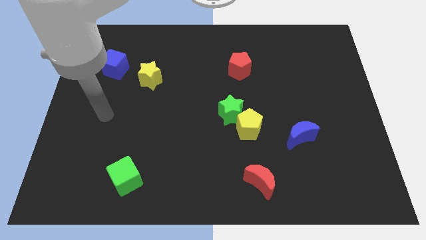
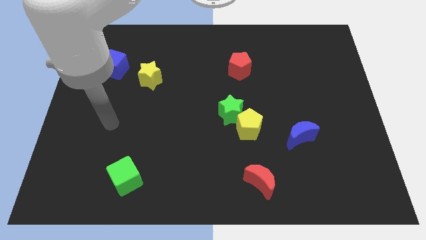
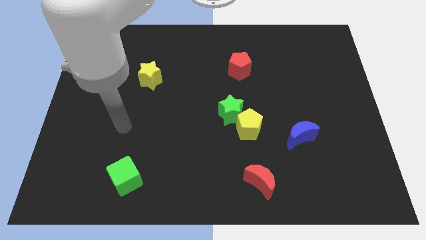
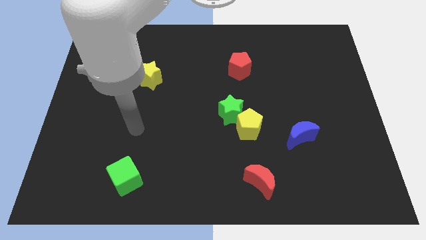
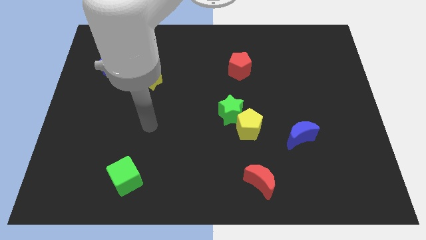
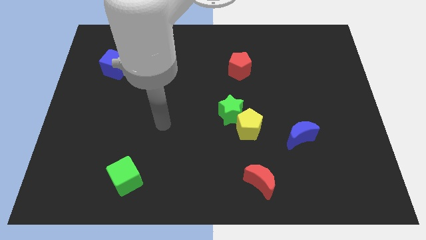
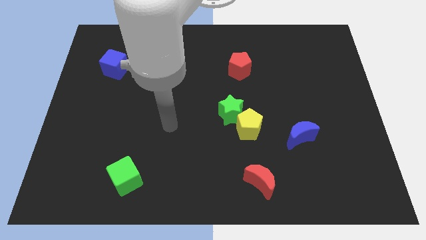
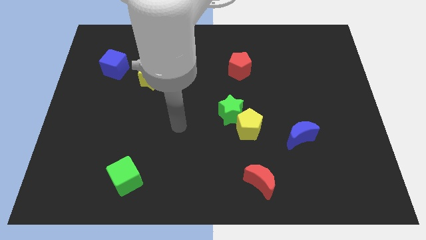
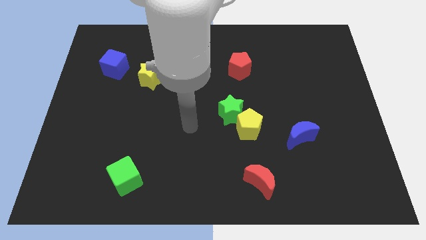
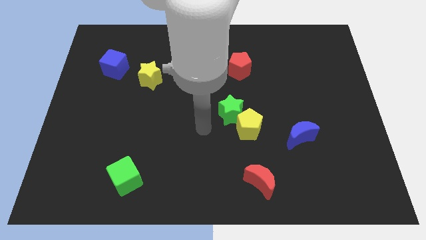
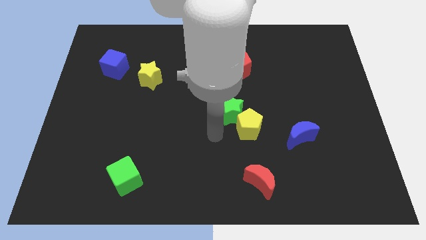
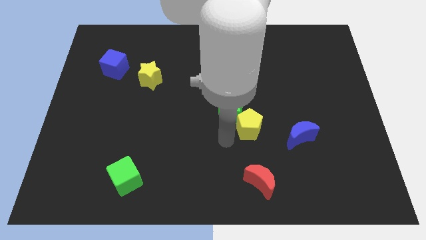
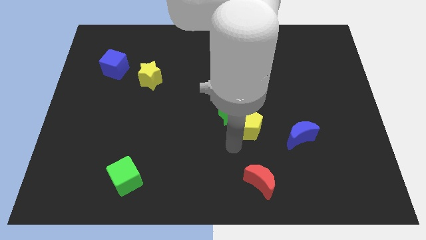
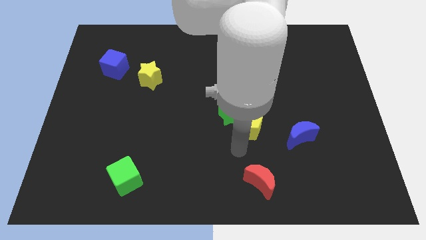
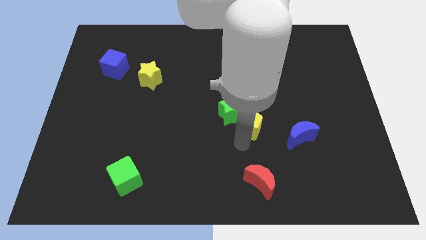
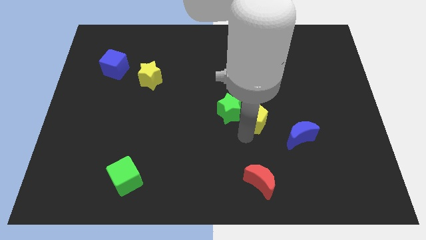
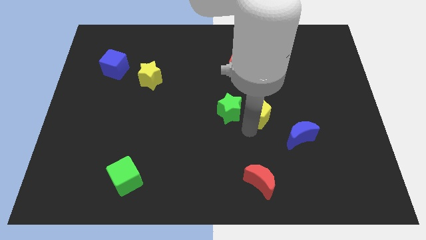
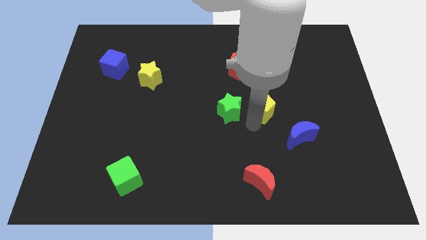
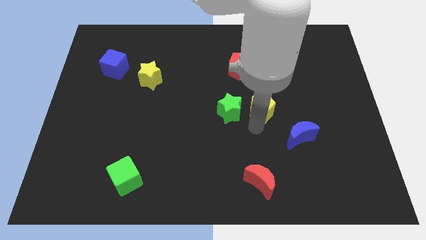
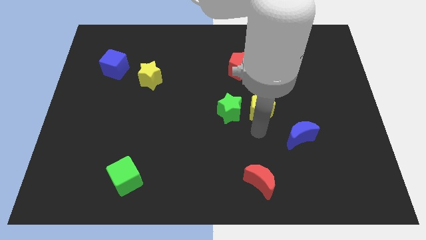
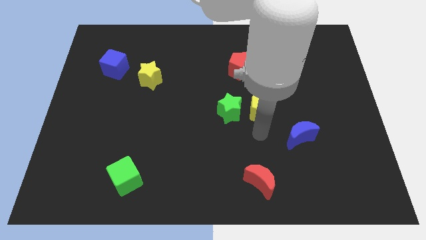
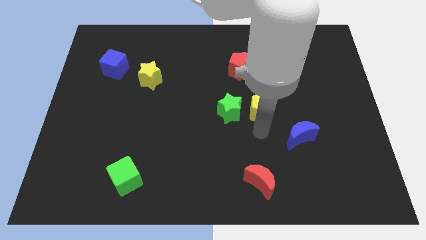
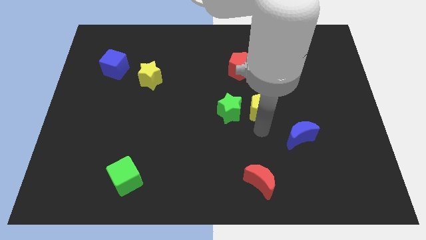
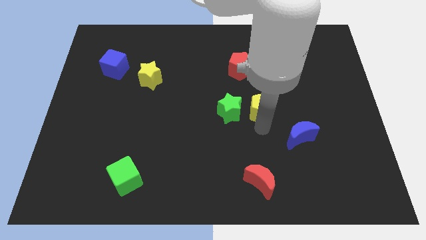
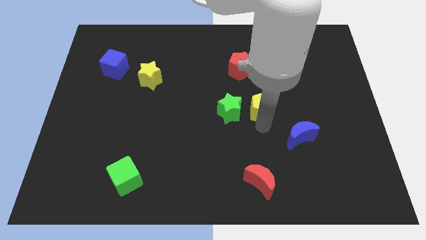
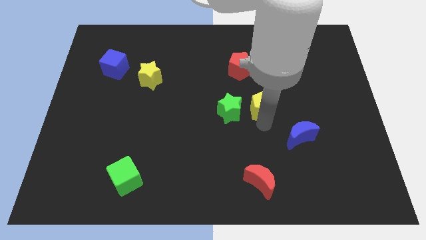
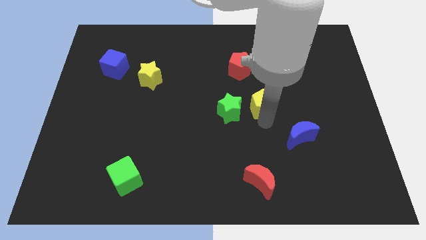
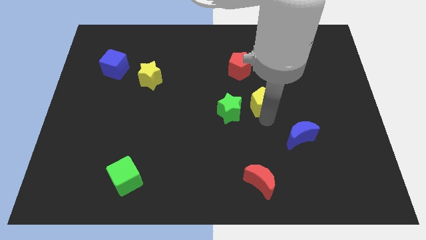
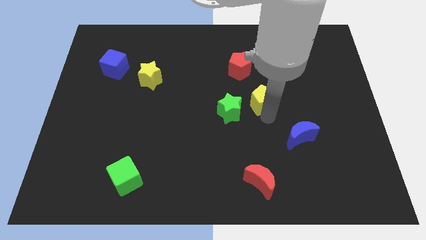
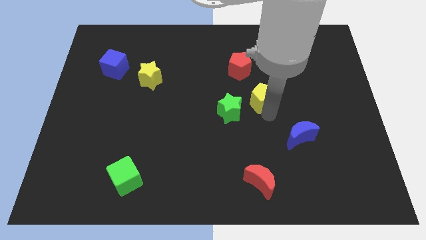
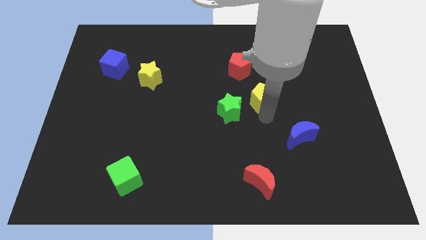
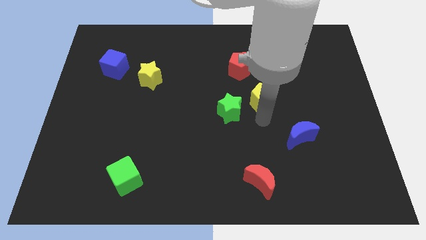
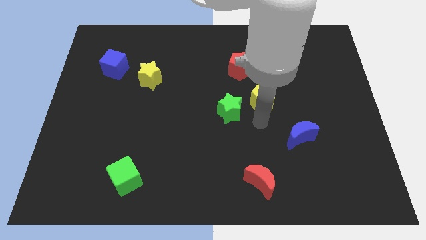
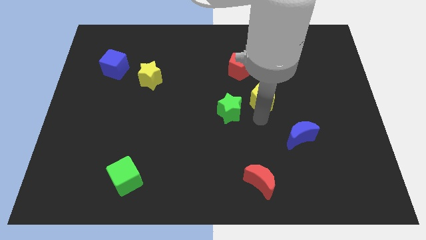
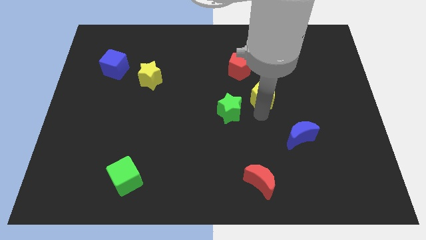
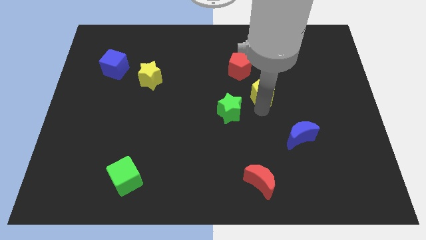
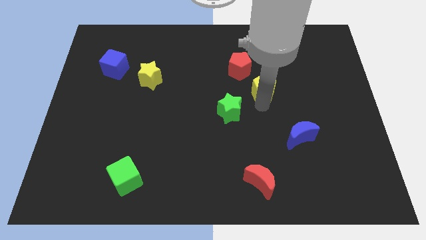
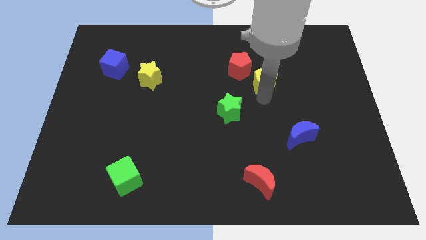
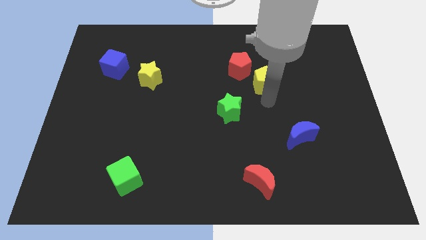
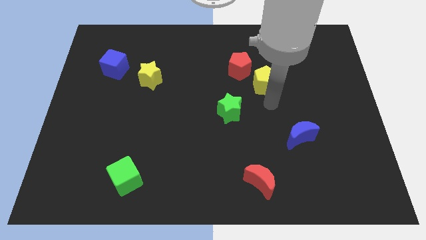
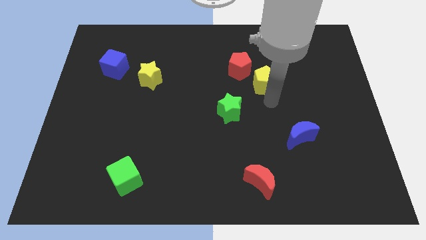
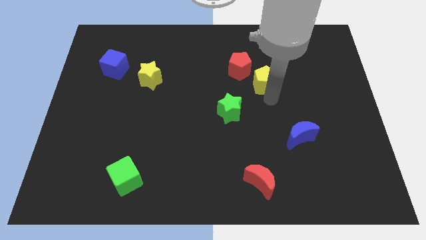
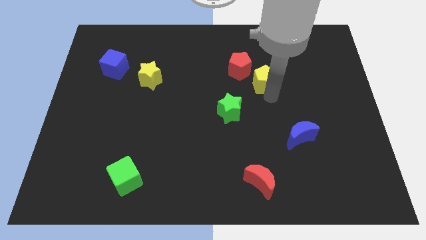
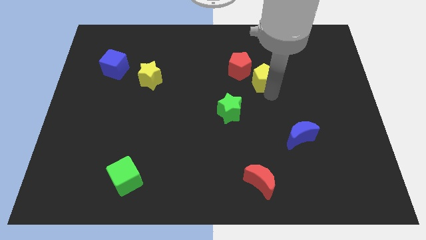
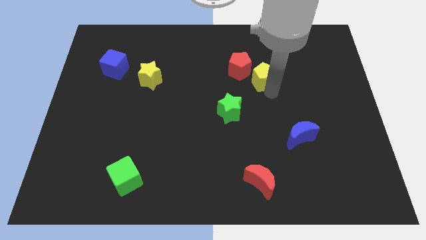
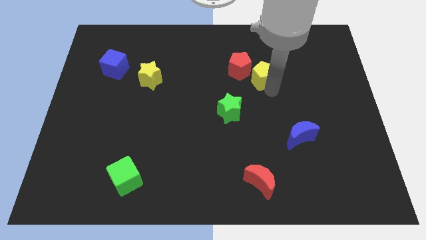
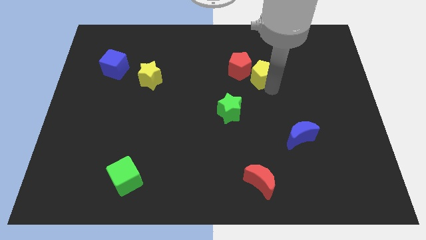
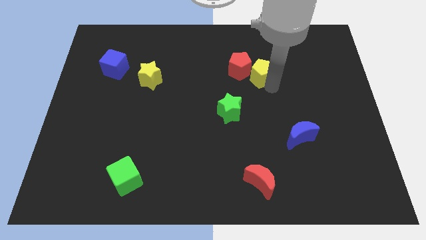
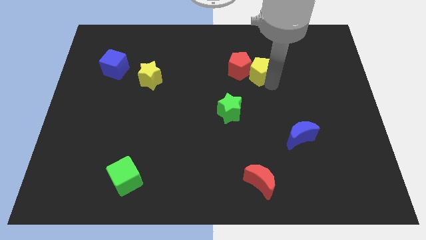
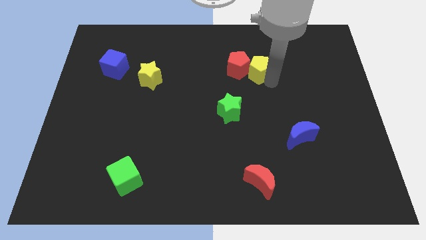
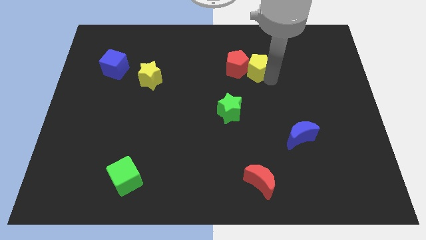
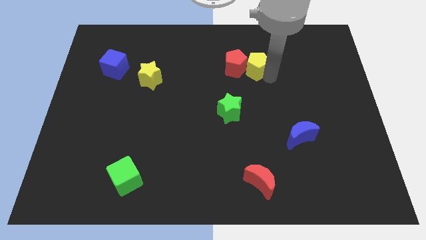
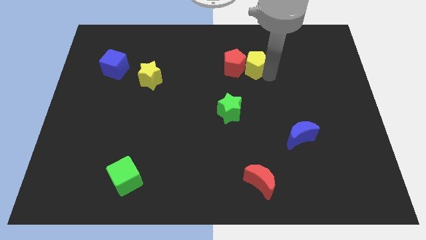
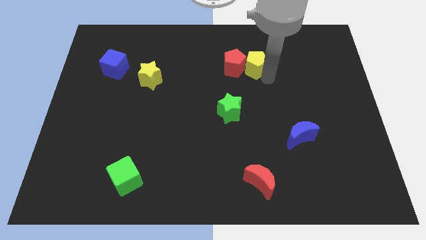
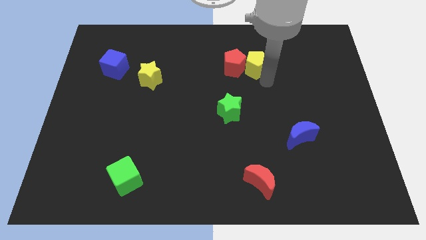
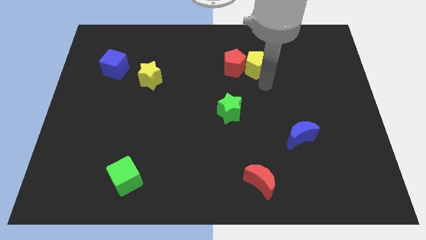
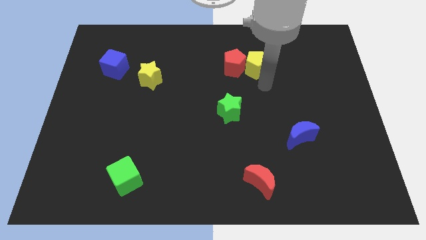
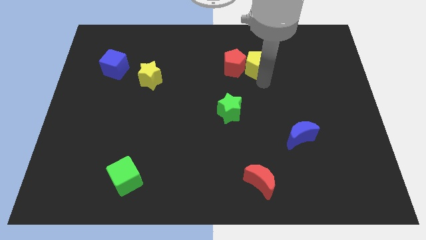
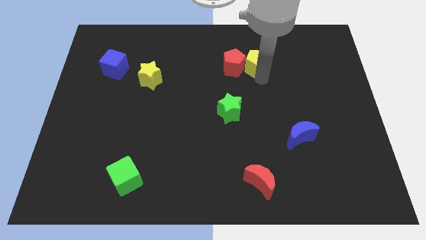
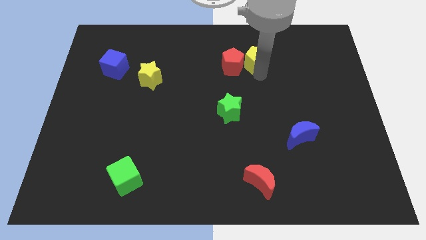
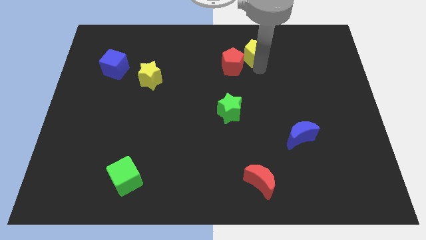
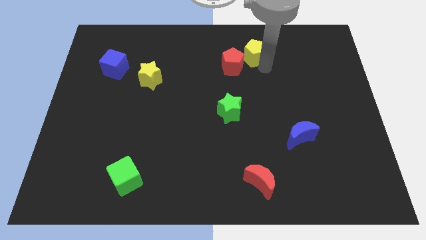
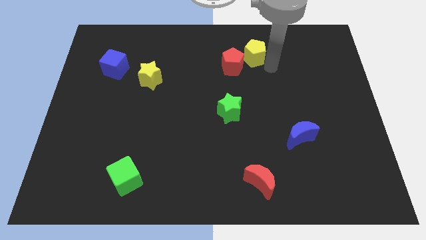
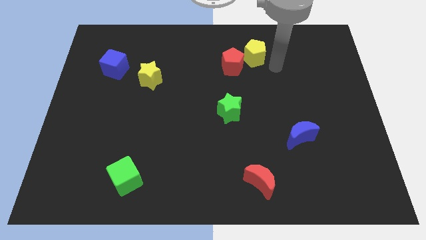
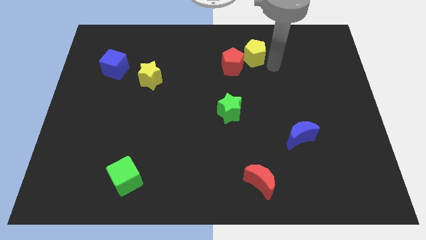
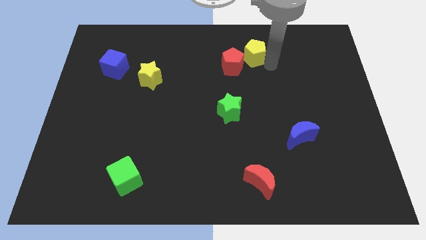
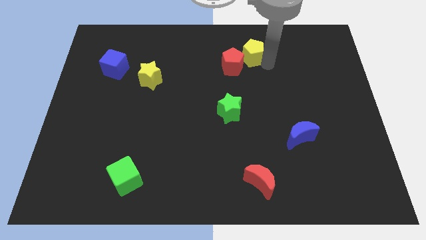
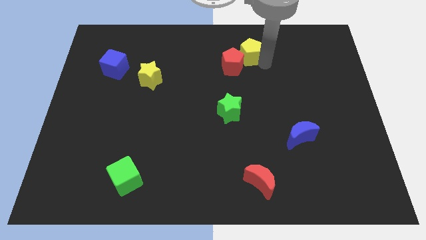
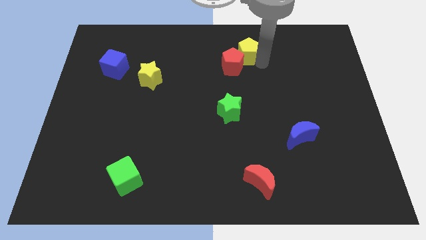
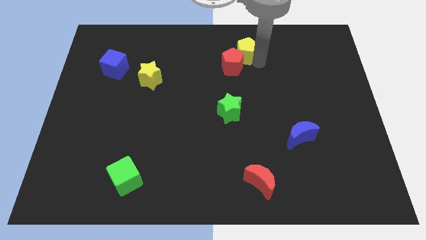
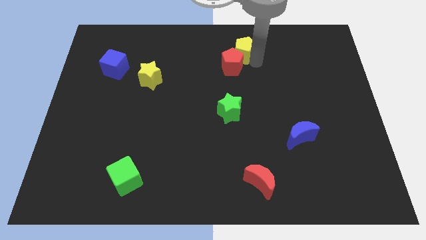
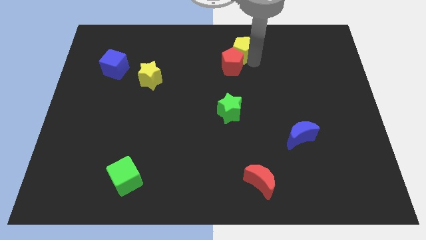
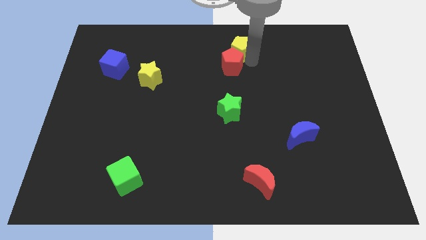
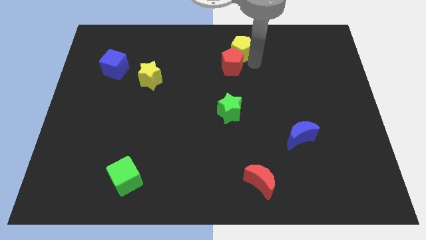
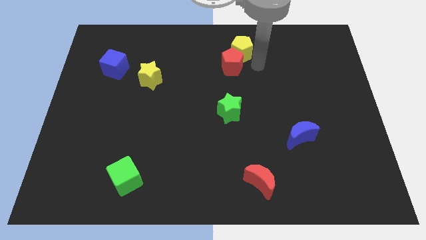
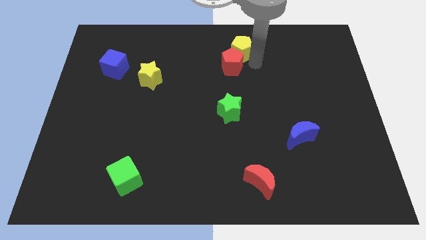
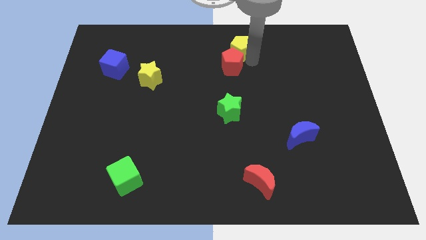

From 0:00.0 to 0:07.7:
move the yellow pentagon to the towards your base
